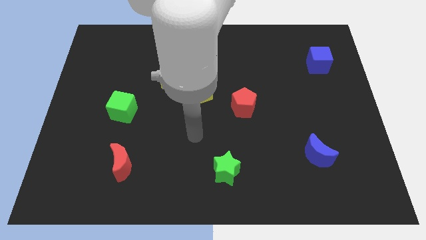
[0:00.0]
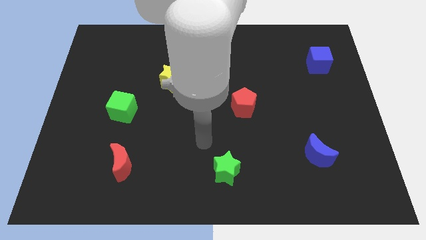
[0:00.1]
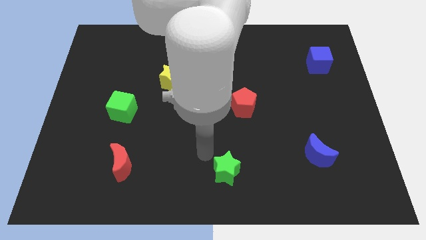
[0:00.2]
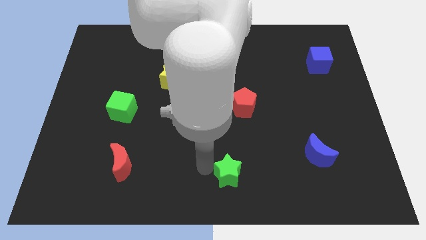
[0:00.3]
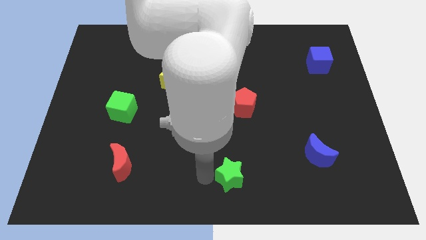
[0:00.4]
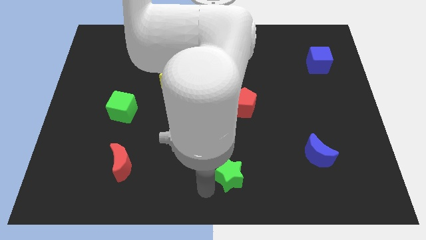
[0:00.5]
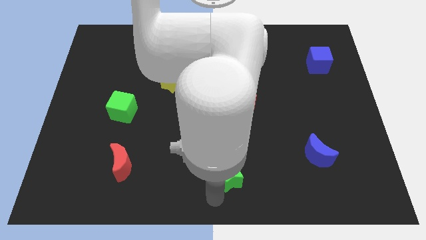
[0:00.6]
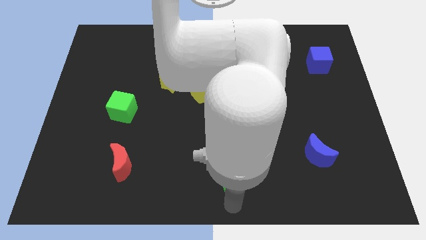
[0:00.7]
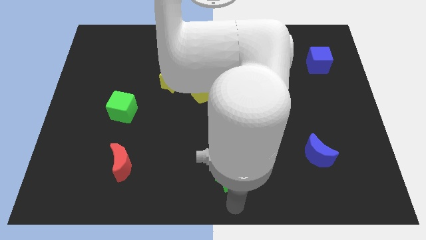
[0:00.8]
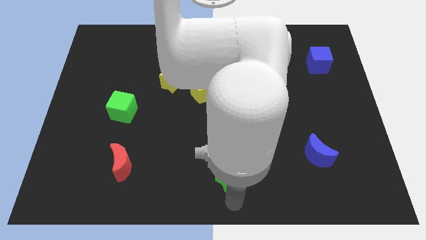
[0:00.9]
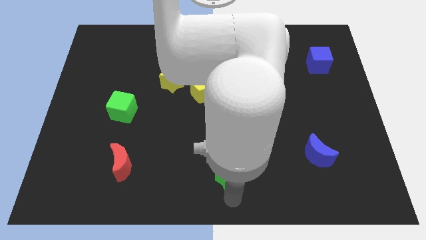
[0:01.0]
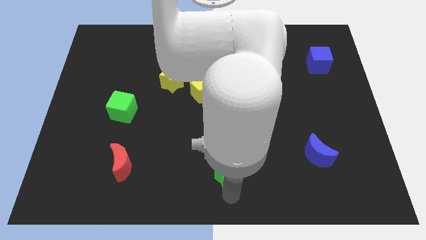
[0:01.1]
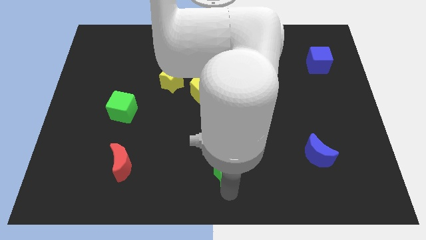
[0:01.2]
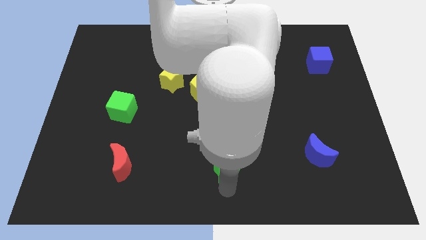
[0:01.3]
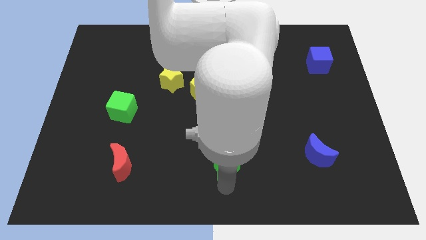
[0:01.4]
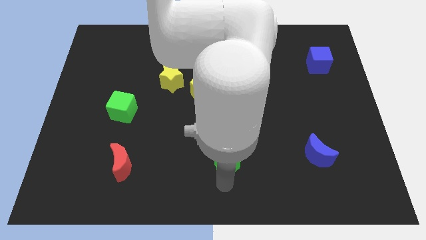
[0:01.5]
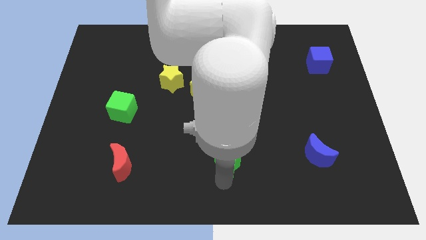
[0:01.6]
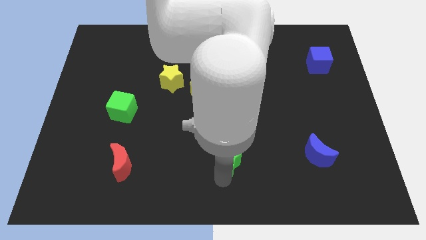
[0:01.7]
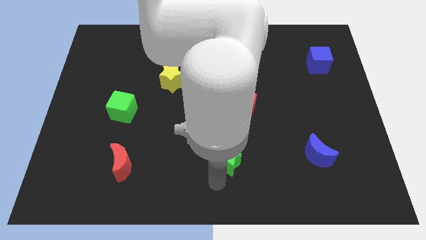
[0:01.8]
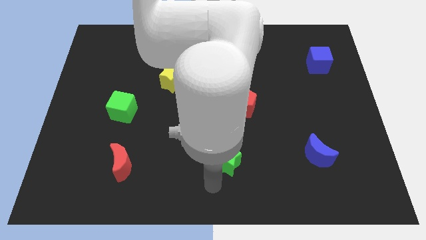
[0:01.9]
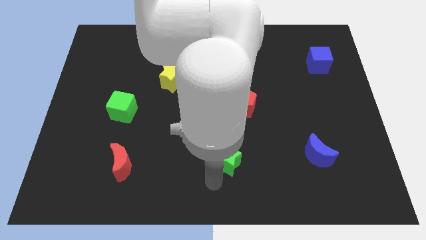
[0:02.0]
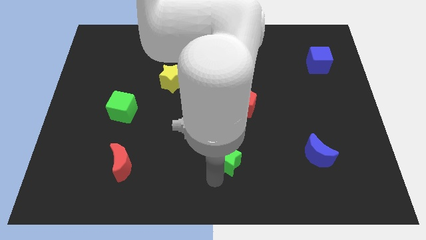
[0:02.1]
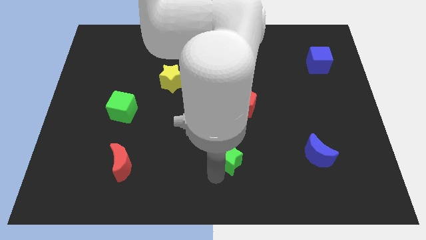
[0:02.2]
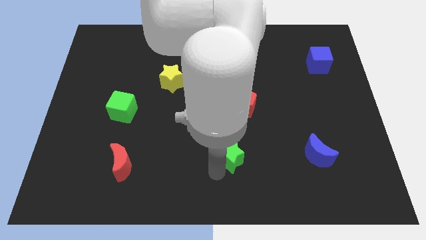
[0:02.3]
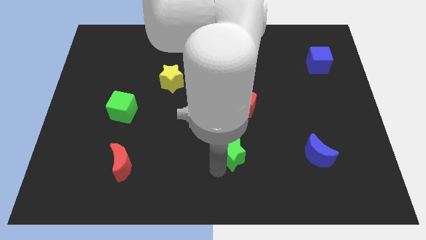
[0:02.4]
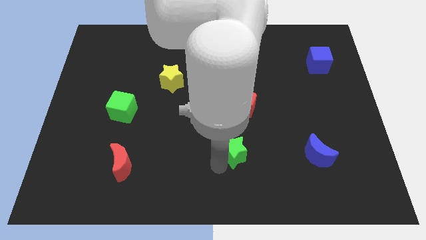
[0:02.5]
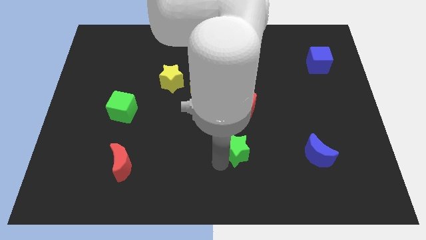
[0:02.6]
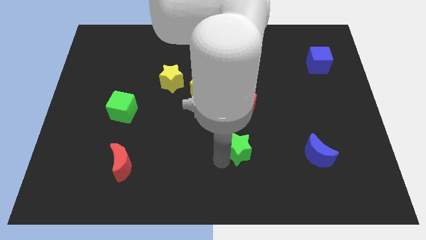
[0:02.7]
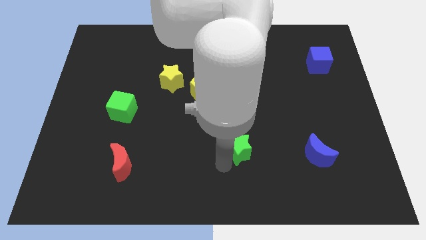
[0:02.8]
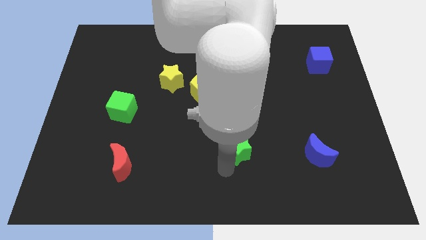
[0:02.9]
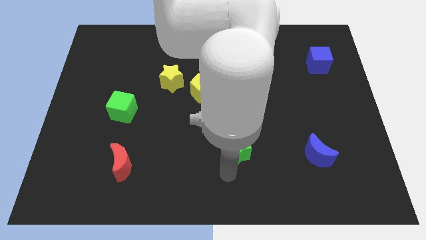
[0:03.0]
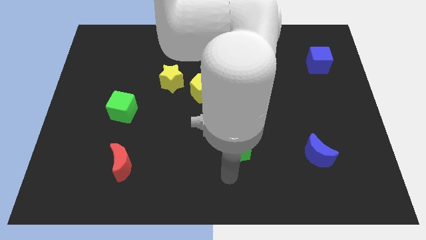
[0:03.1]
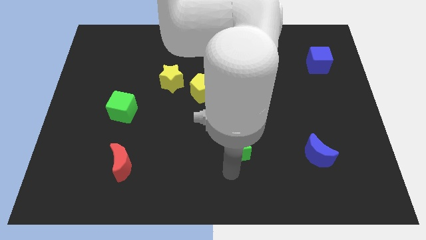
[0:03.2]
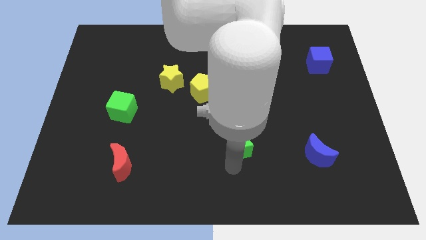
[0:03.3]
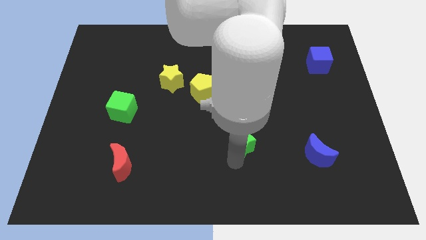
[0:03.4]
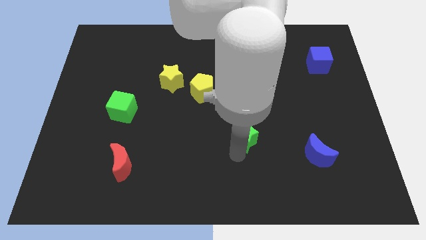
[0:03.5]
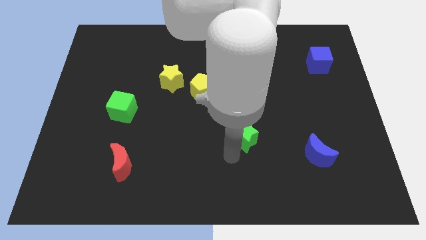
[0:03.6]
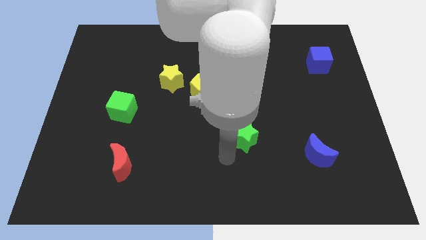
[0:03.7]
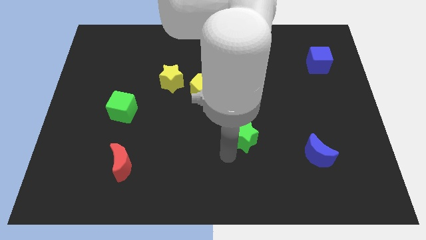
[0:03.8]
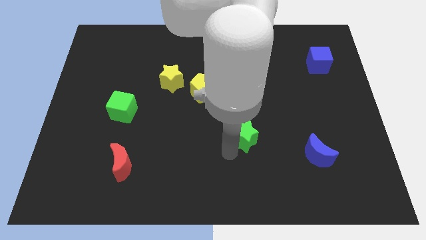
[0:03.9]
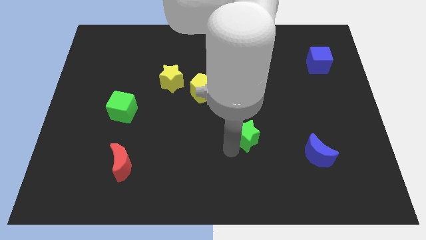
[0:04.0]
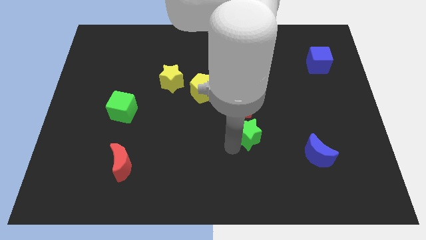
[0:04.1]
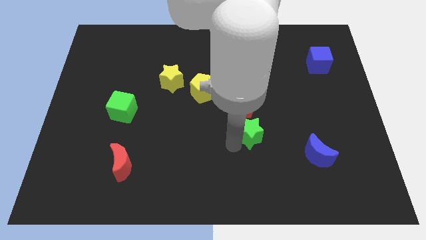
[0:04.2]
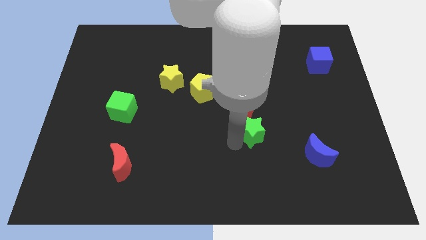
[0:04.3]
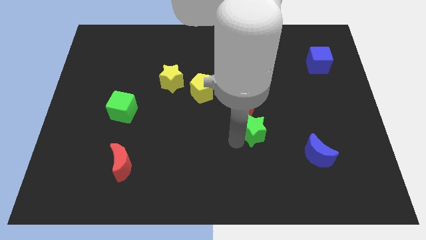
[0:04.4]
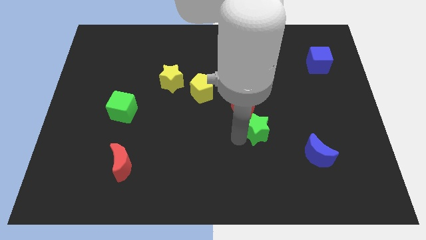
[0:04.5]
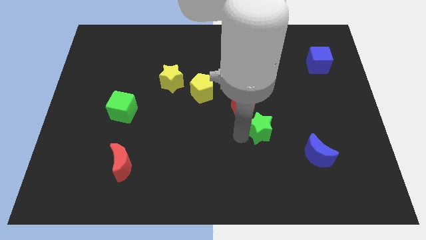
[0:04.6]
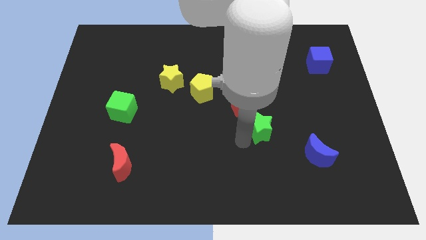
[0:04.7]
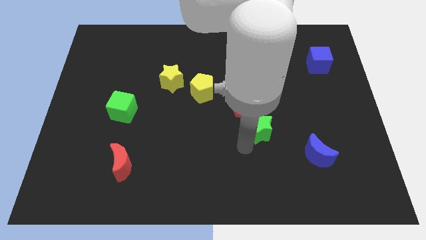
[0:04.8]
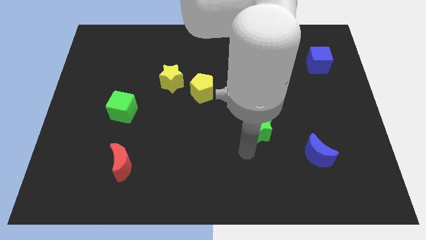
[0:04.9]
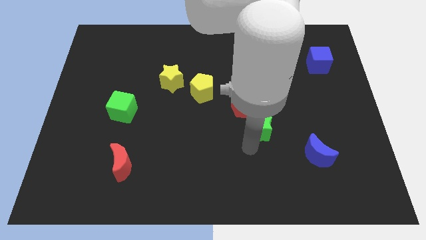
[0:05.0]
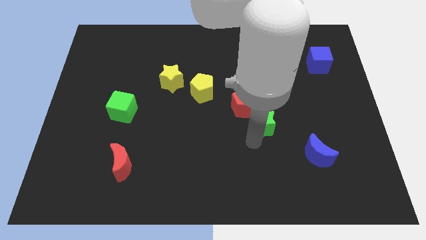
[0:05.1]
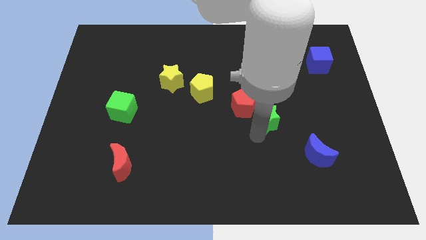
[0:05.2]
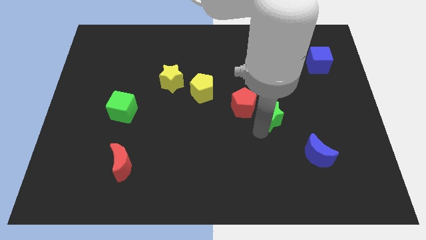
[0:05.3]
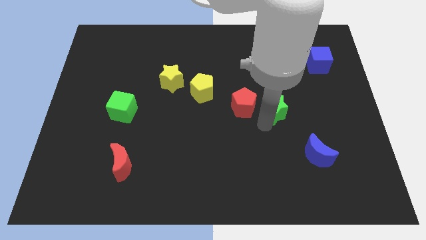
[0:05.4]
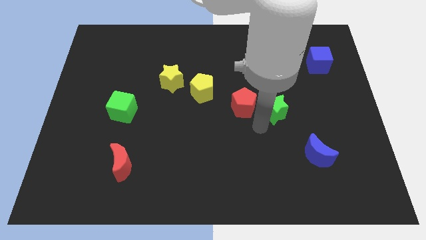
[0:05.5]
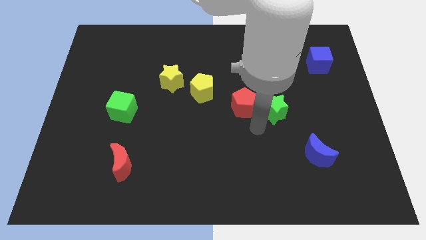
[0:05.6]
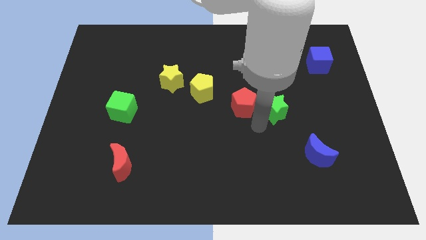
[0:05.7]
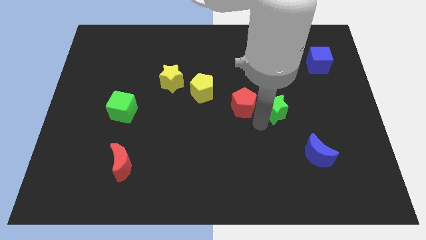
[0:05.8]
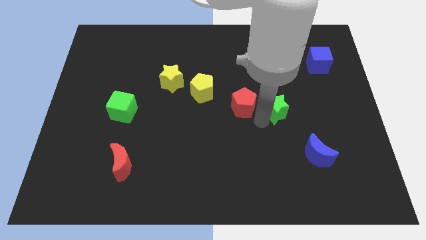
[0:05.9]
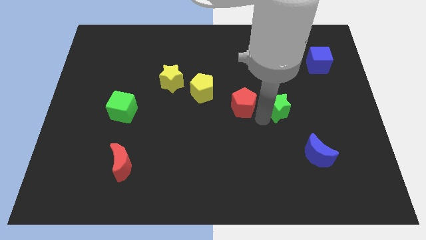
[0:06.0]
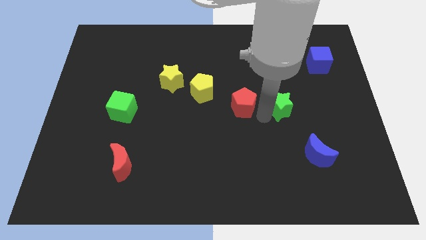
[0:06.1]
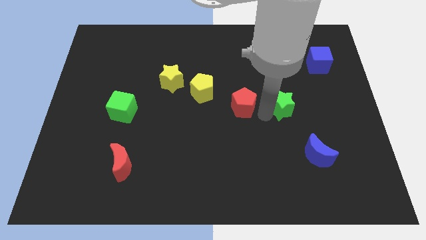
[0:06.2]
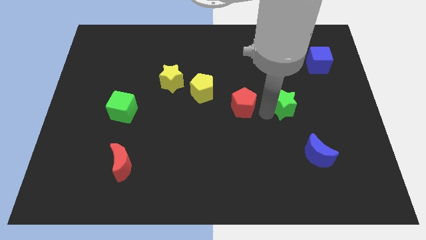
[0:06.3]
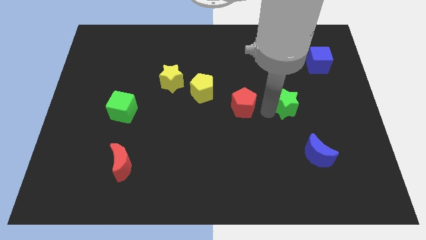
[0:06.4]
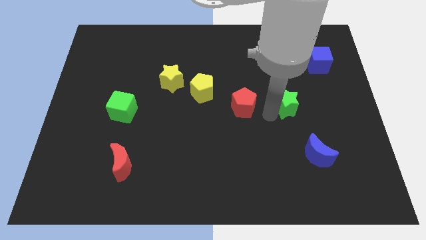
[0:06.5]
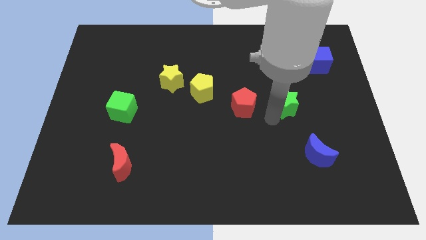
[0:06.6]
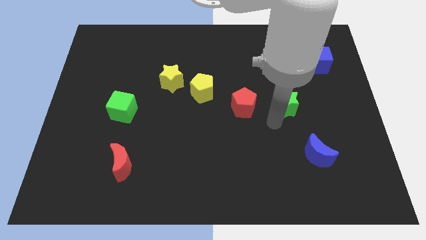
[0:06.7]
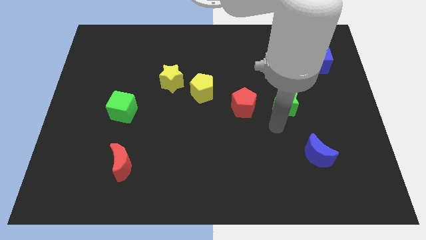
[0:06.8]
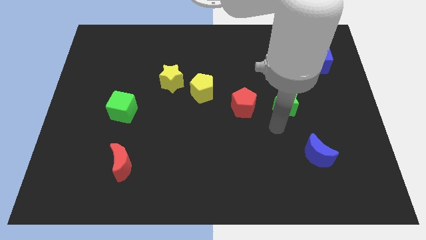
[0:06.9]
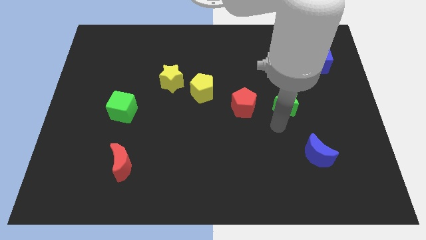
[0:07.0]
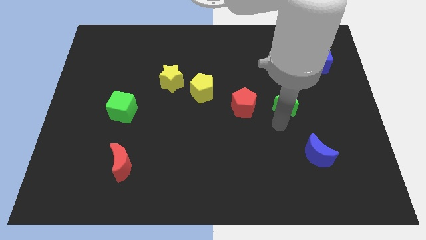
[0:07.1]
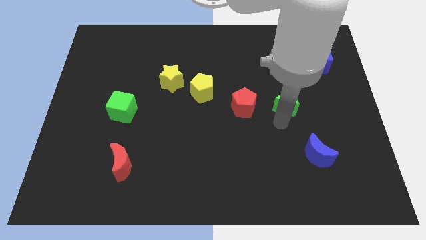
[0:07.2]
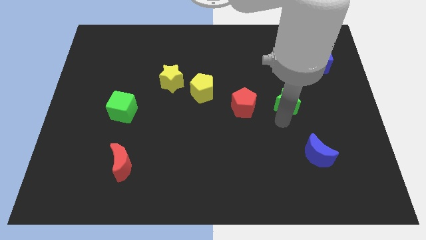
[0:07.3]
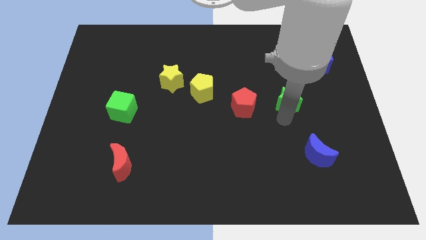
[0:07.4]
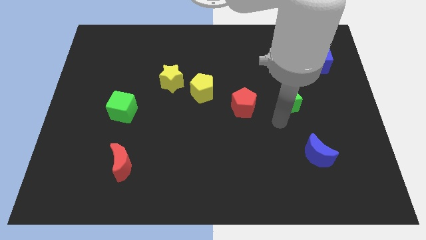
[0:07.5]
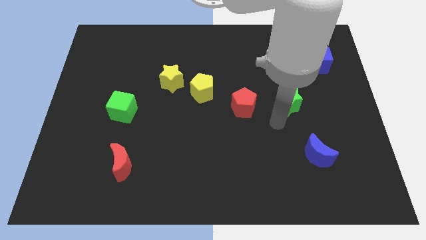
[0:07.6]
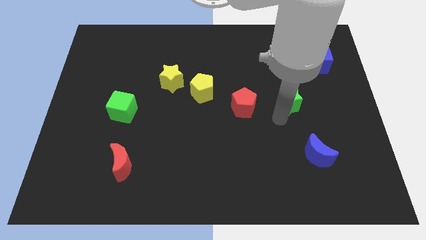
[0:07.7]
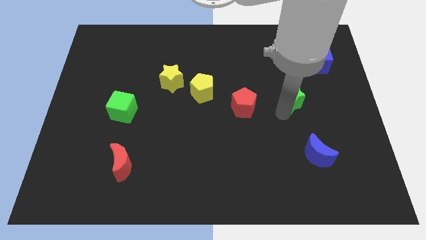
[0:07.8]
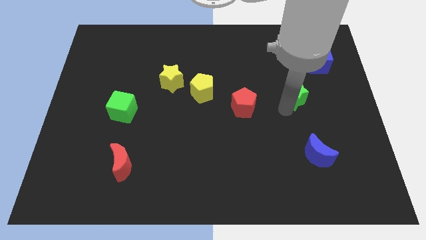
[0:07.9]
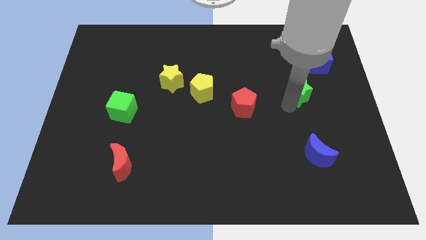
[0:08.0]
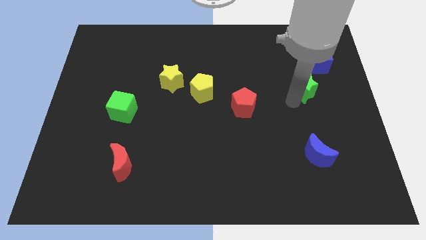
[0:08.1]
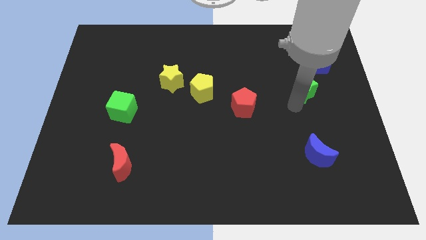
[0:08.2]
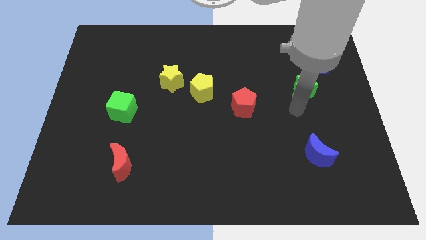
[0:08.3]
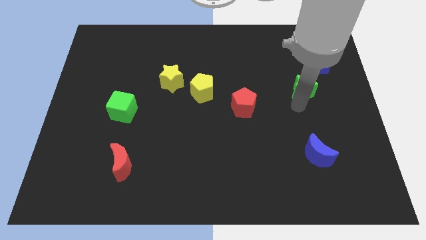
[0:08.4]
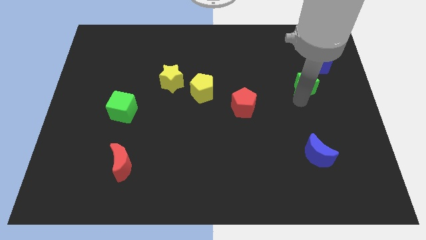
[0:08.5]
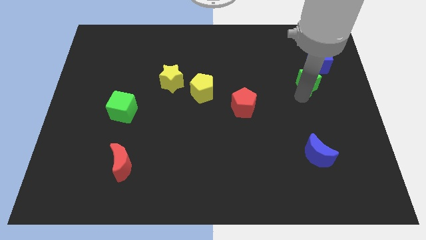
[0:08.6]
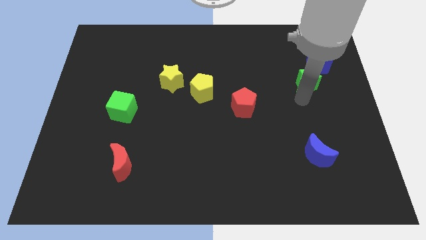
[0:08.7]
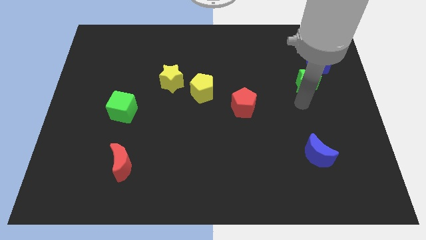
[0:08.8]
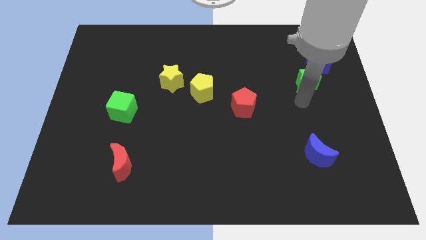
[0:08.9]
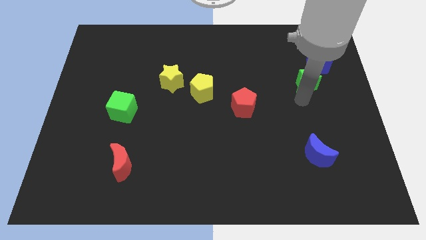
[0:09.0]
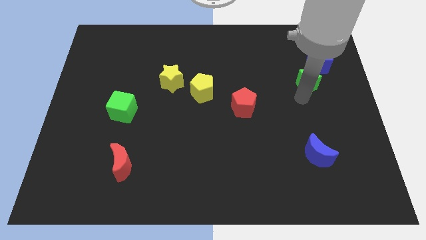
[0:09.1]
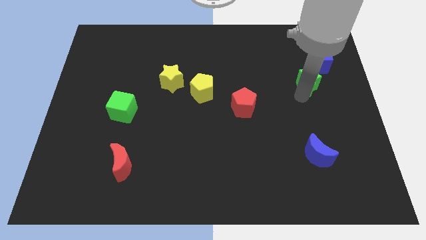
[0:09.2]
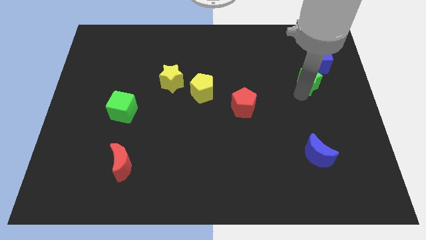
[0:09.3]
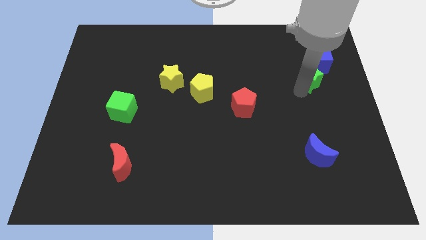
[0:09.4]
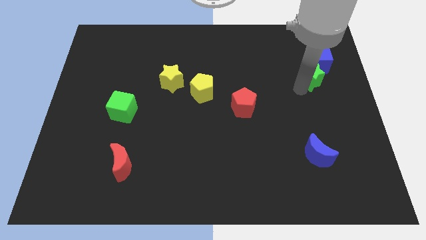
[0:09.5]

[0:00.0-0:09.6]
move the green star close to the blue cube
